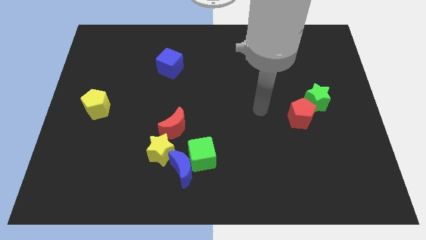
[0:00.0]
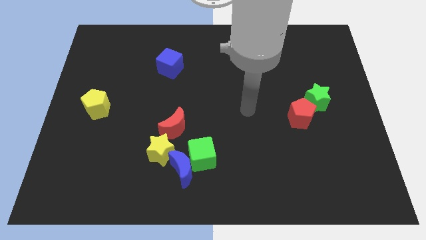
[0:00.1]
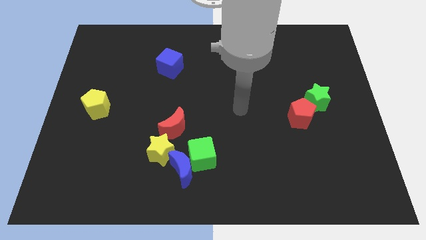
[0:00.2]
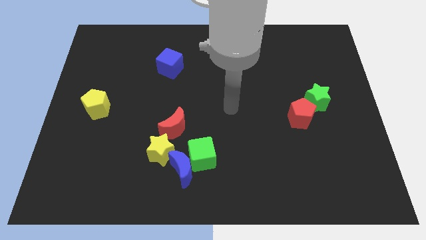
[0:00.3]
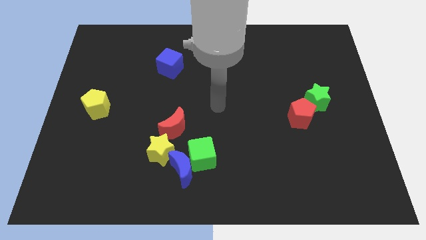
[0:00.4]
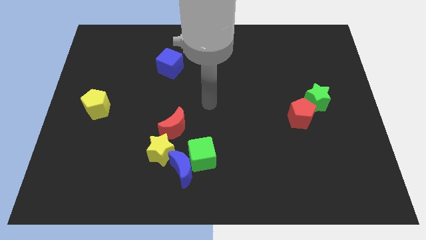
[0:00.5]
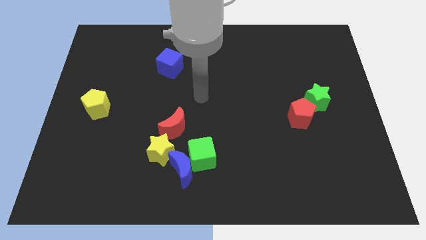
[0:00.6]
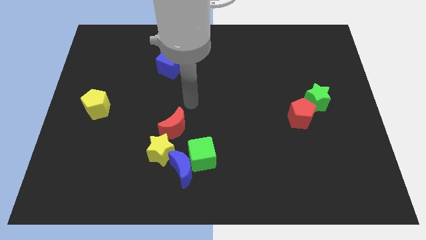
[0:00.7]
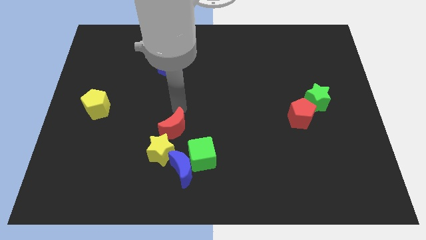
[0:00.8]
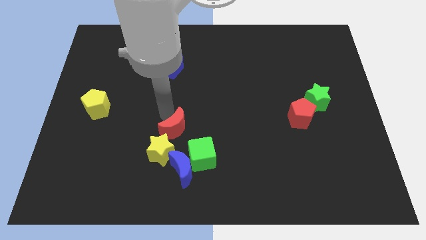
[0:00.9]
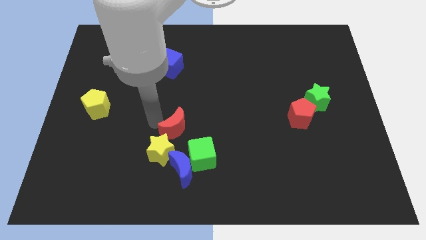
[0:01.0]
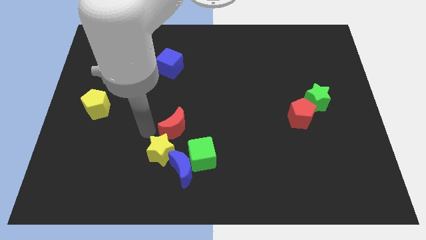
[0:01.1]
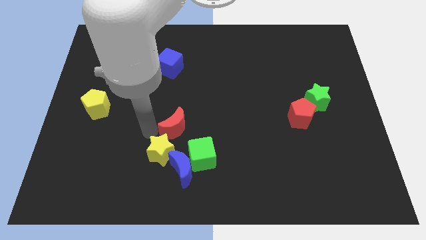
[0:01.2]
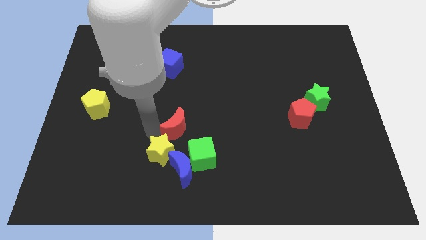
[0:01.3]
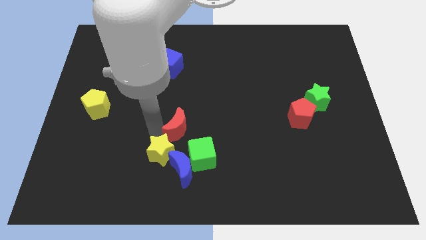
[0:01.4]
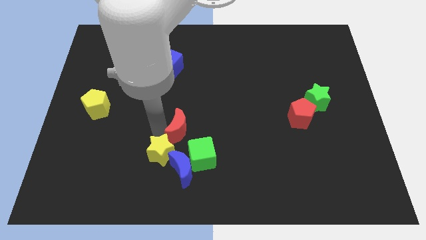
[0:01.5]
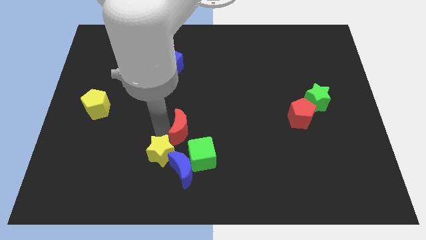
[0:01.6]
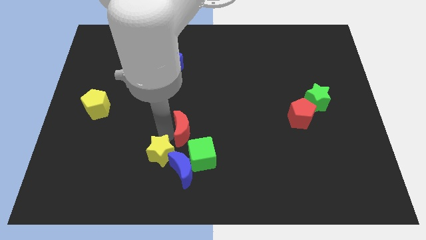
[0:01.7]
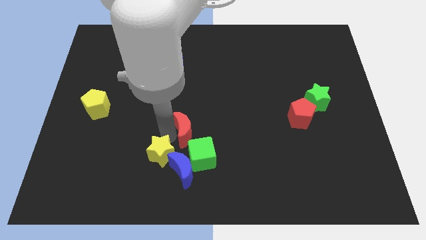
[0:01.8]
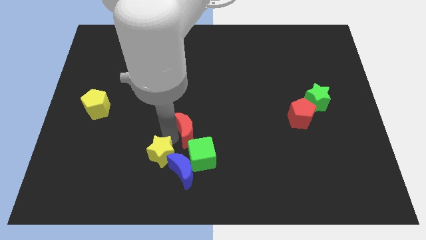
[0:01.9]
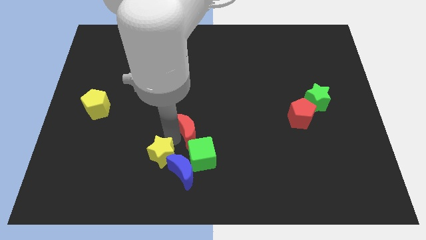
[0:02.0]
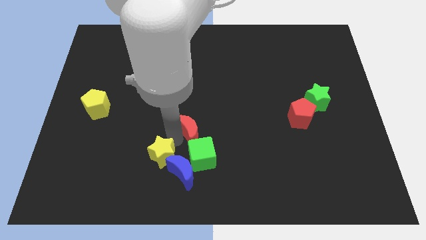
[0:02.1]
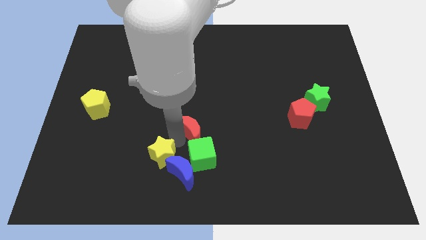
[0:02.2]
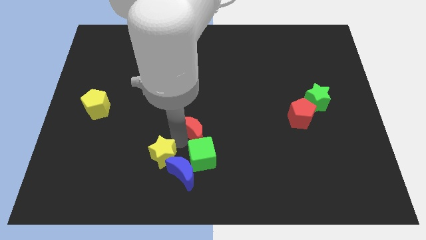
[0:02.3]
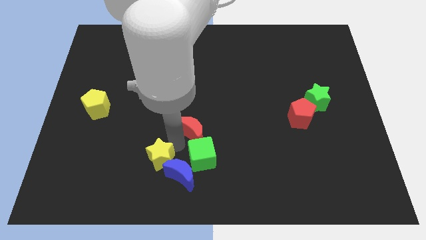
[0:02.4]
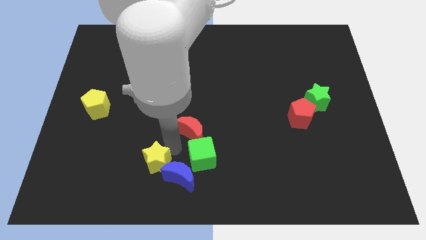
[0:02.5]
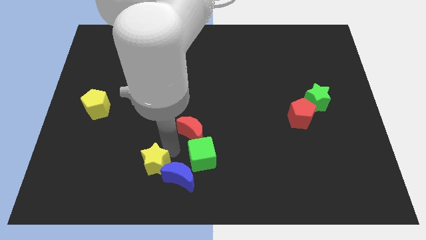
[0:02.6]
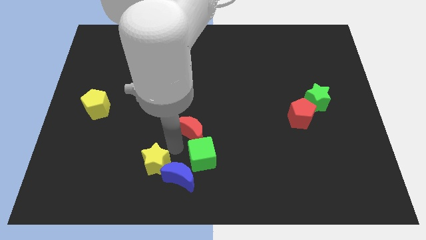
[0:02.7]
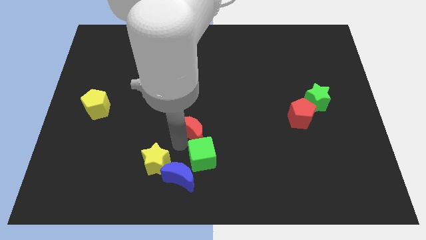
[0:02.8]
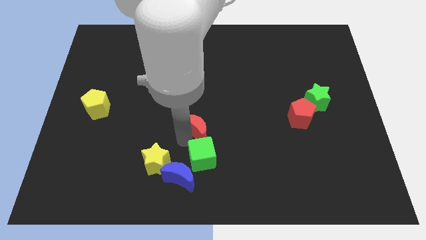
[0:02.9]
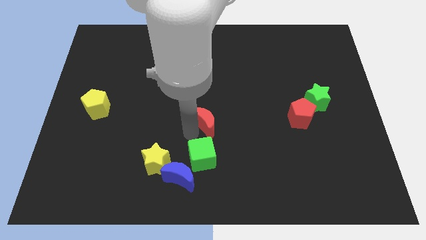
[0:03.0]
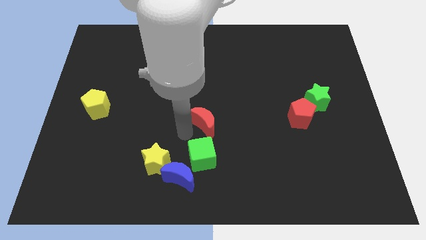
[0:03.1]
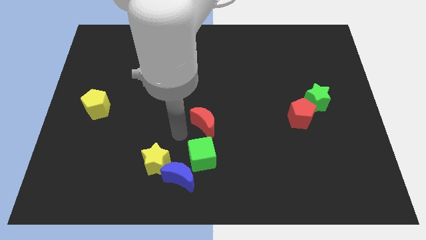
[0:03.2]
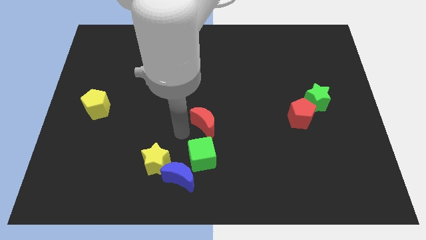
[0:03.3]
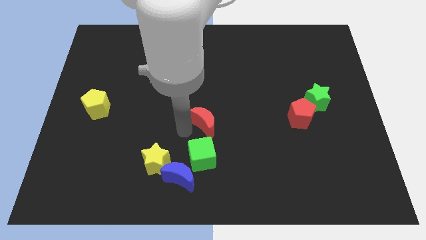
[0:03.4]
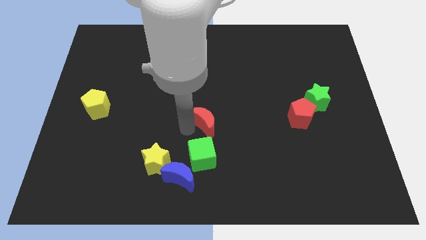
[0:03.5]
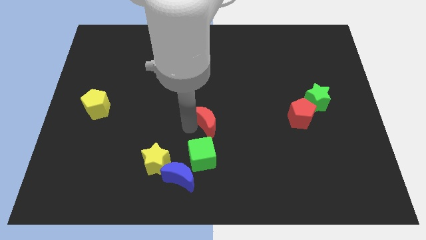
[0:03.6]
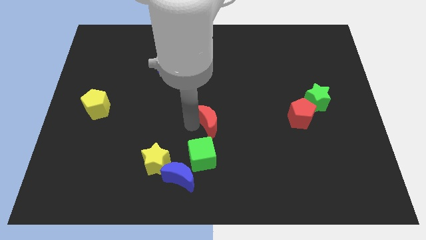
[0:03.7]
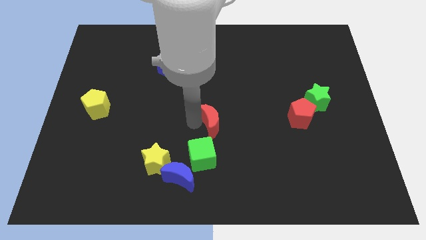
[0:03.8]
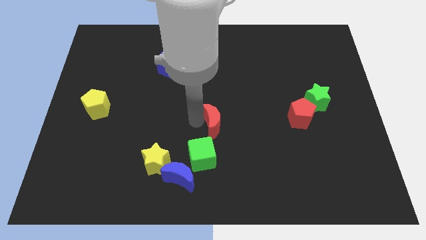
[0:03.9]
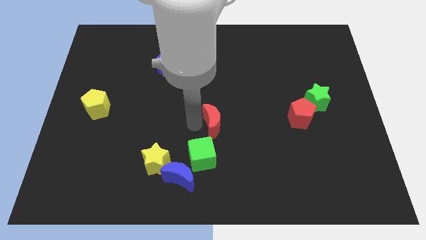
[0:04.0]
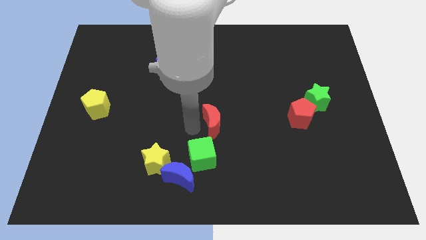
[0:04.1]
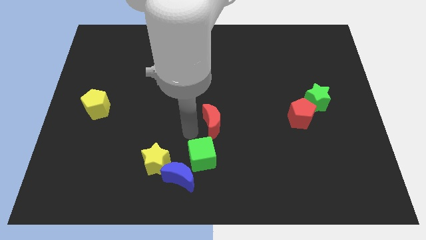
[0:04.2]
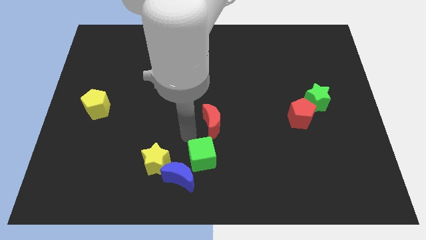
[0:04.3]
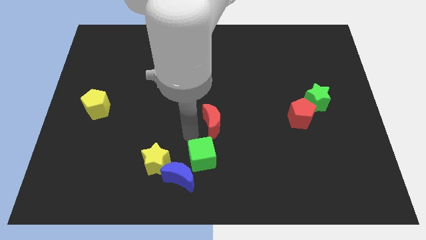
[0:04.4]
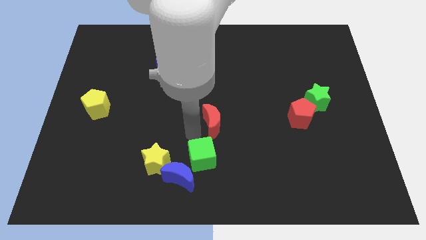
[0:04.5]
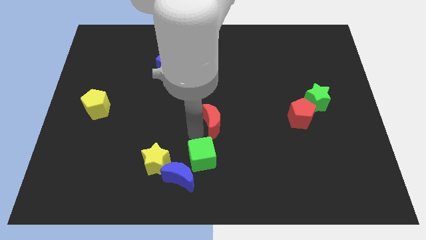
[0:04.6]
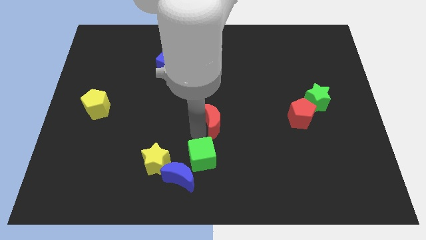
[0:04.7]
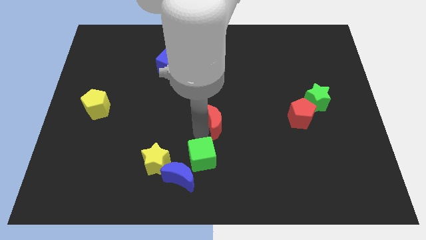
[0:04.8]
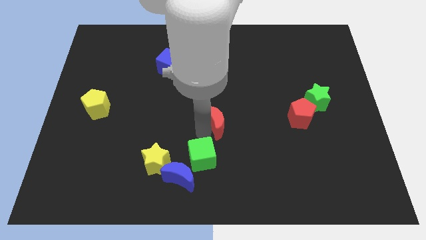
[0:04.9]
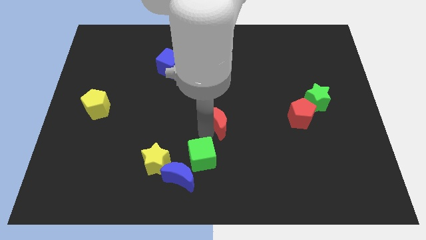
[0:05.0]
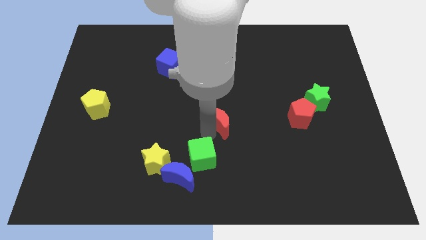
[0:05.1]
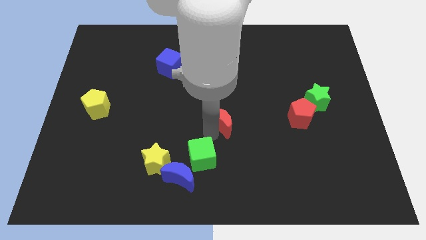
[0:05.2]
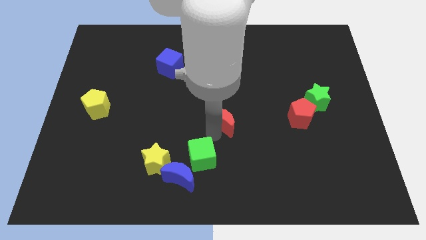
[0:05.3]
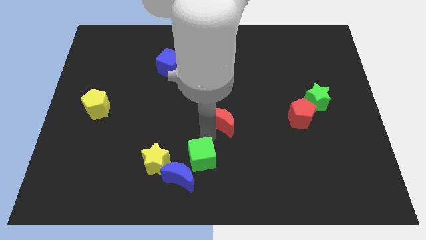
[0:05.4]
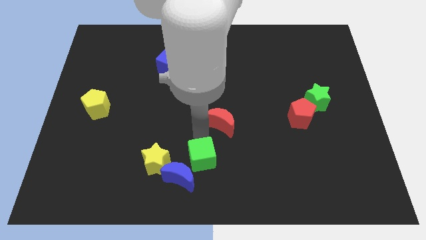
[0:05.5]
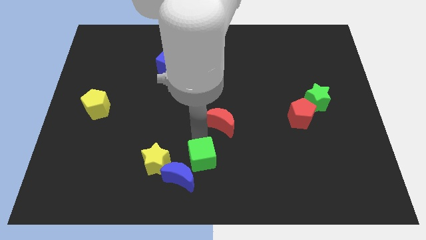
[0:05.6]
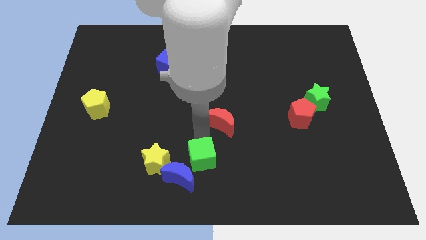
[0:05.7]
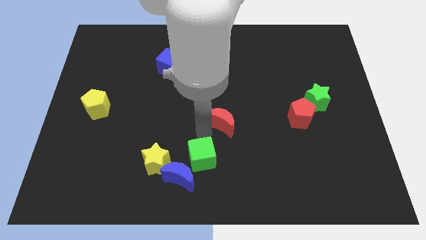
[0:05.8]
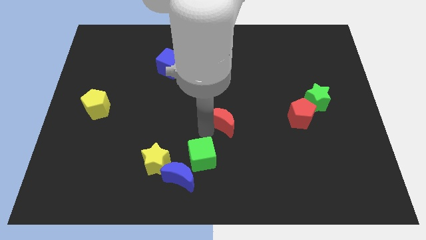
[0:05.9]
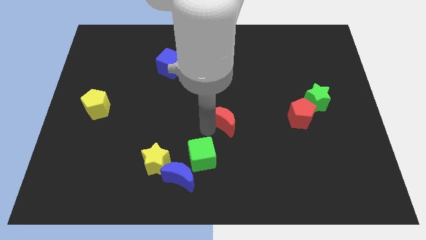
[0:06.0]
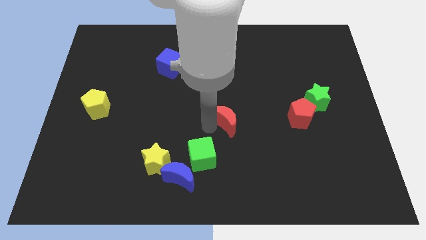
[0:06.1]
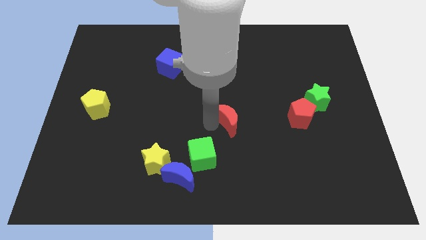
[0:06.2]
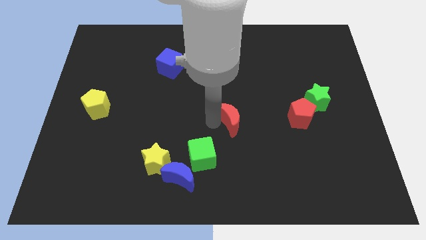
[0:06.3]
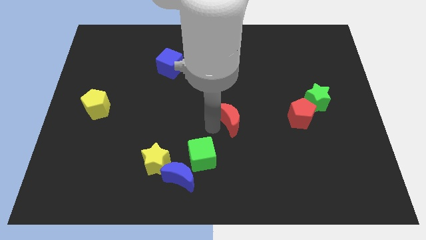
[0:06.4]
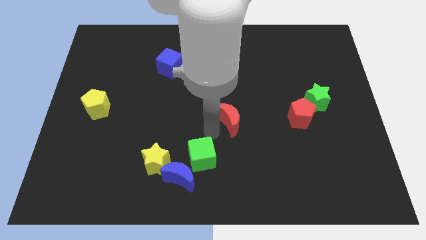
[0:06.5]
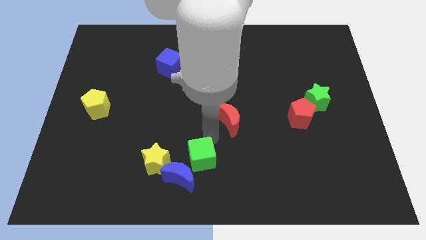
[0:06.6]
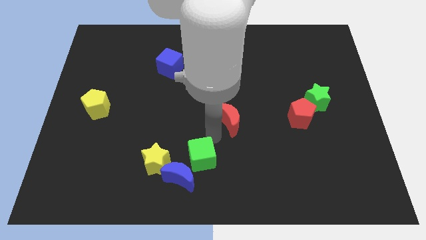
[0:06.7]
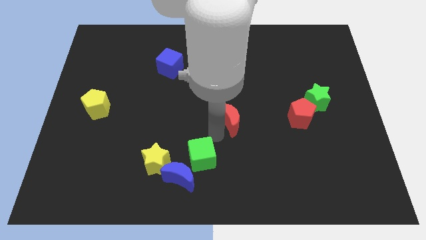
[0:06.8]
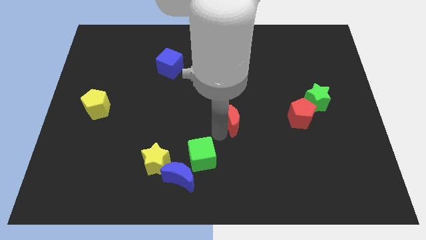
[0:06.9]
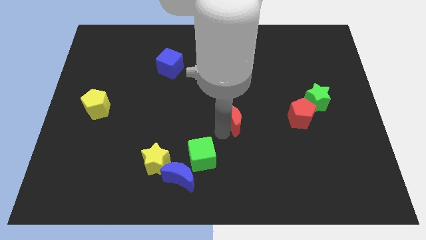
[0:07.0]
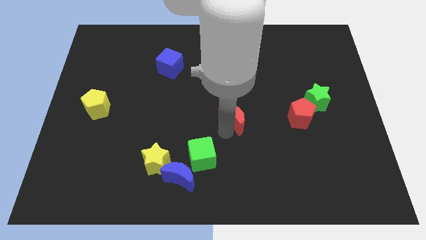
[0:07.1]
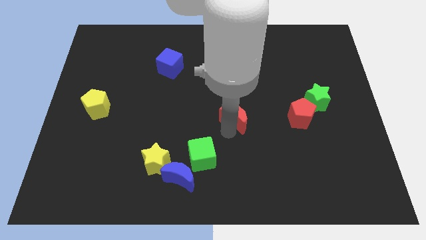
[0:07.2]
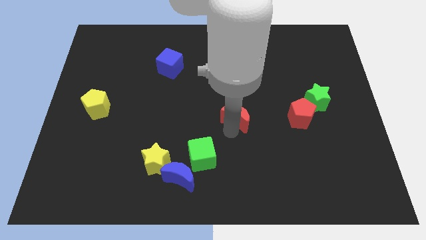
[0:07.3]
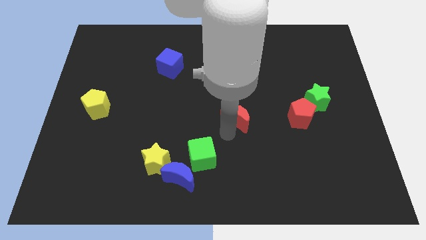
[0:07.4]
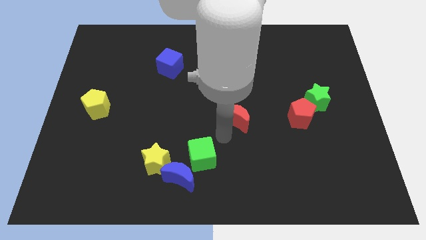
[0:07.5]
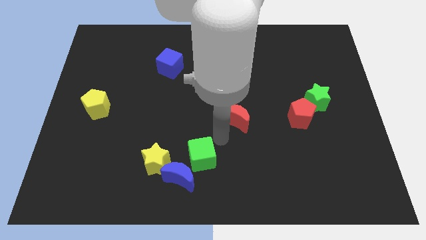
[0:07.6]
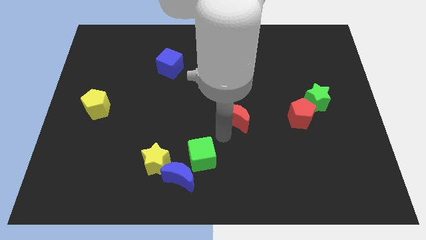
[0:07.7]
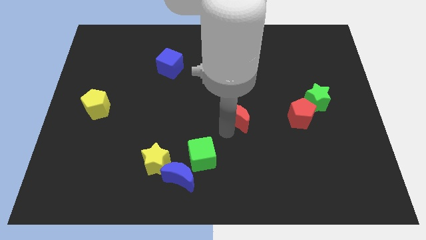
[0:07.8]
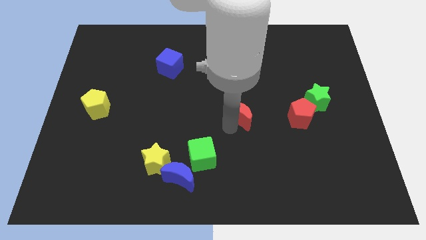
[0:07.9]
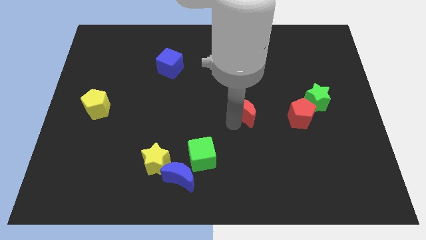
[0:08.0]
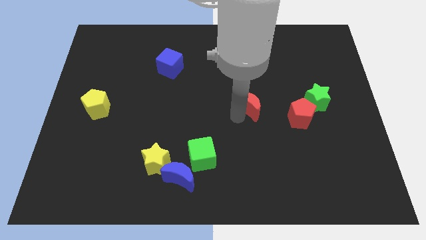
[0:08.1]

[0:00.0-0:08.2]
slide the red moon to the left of the green star
